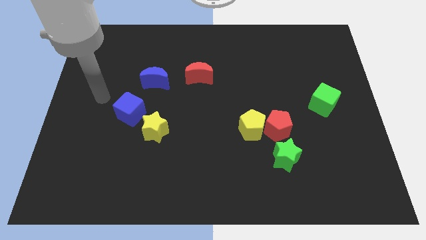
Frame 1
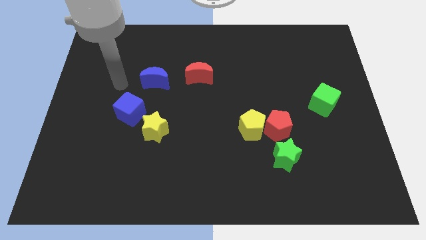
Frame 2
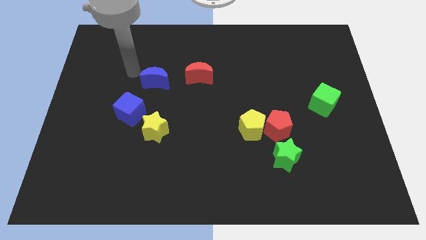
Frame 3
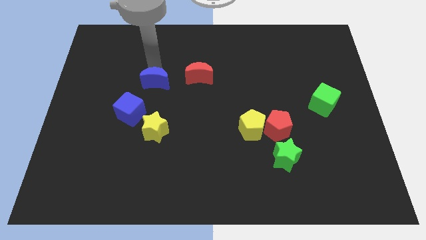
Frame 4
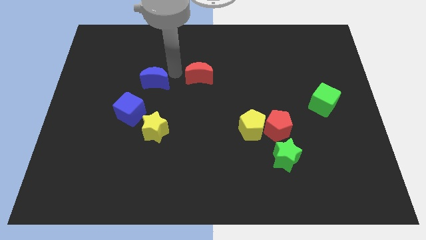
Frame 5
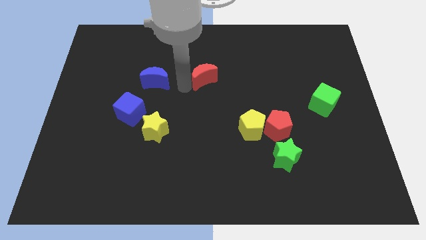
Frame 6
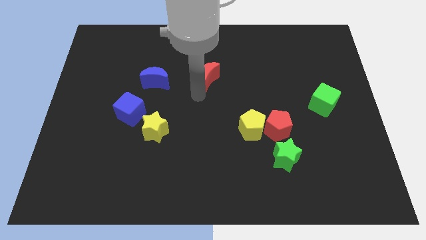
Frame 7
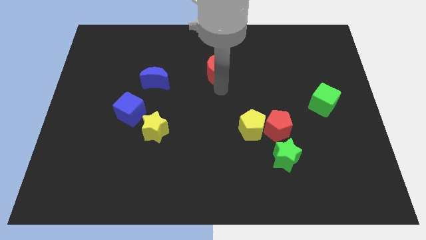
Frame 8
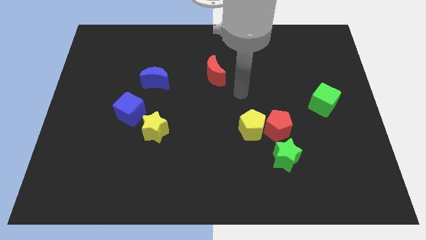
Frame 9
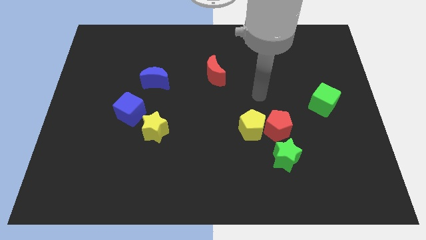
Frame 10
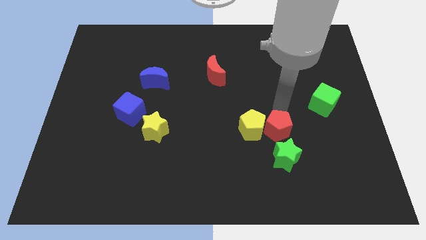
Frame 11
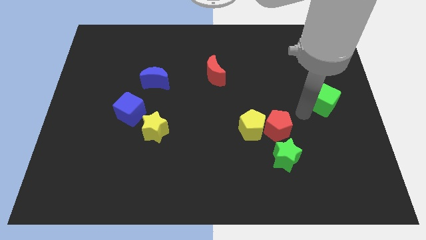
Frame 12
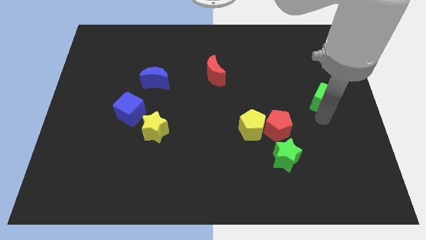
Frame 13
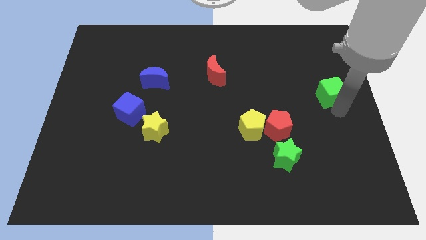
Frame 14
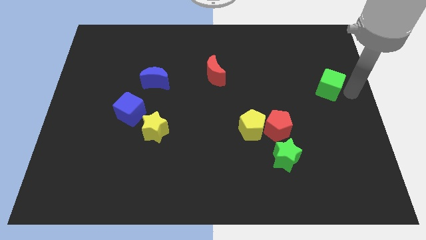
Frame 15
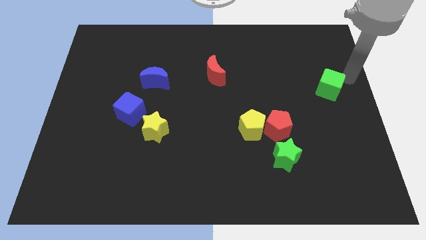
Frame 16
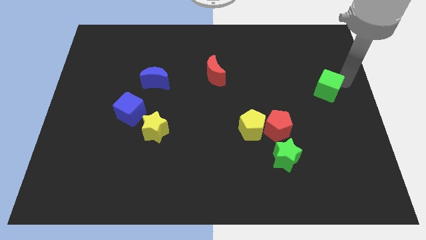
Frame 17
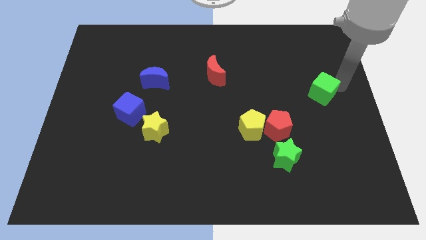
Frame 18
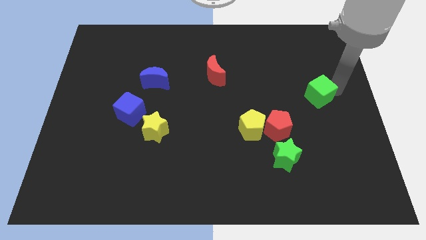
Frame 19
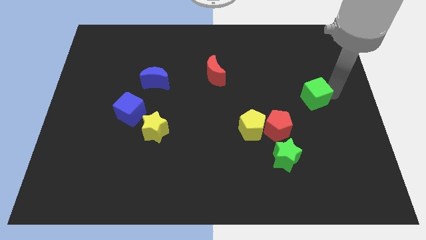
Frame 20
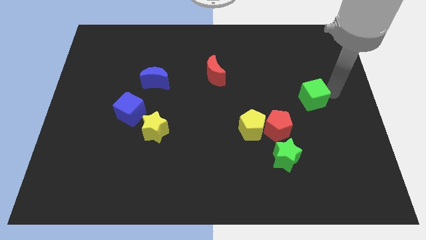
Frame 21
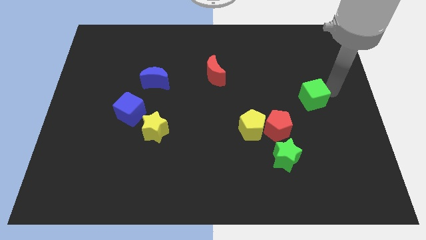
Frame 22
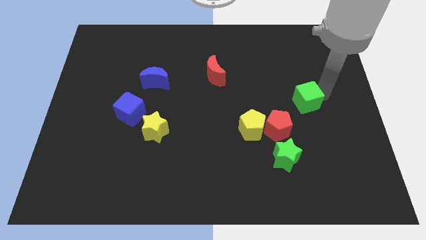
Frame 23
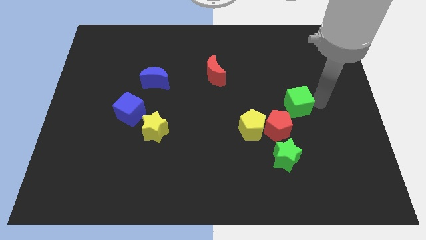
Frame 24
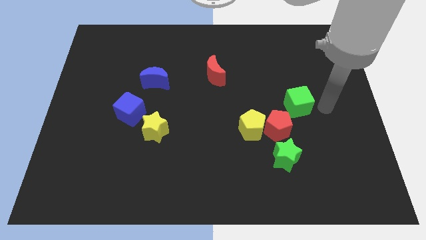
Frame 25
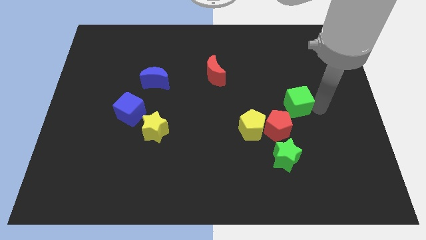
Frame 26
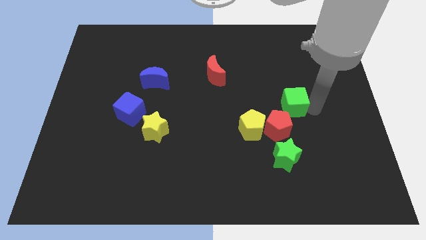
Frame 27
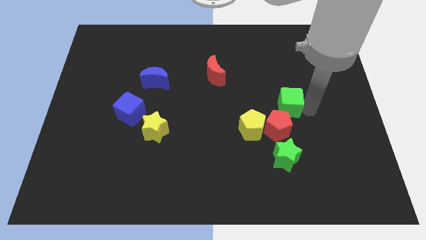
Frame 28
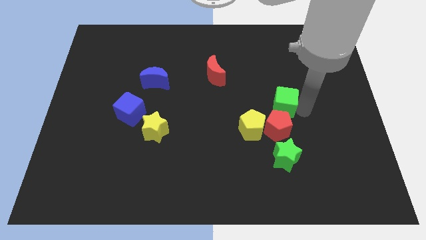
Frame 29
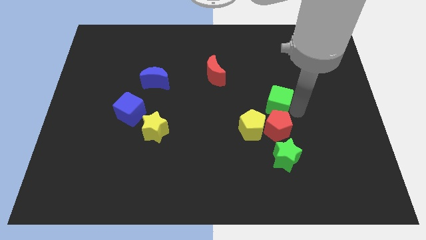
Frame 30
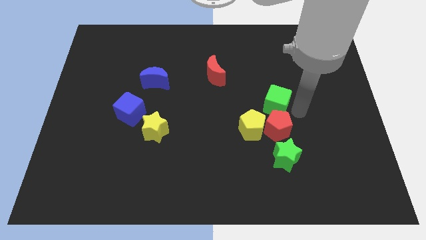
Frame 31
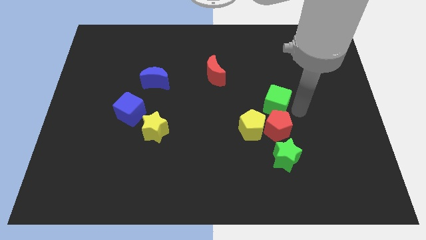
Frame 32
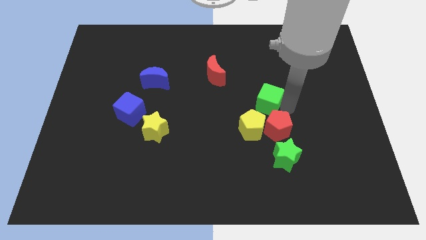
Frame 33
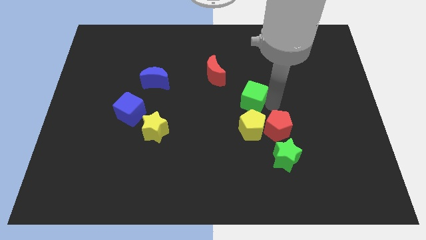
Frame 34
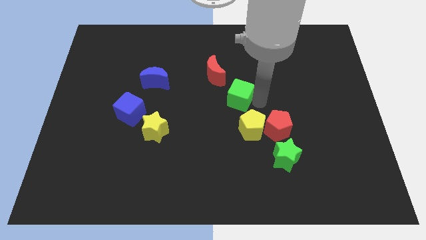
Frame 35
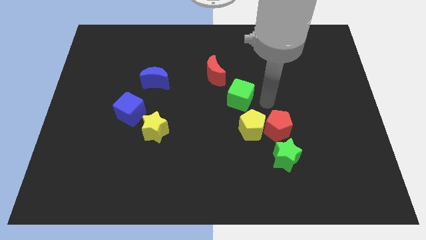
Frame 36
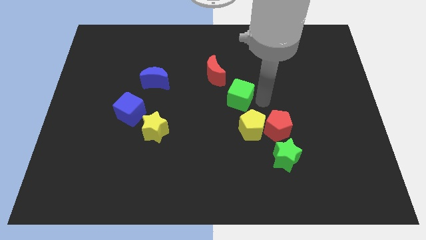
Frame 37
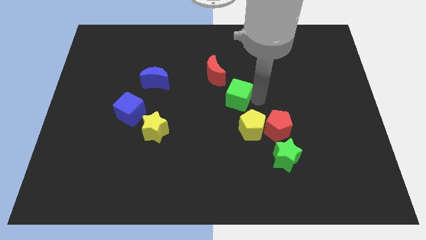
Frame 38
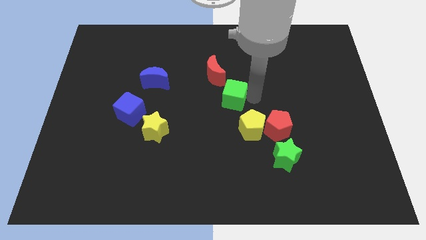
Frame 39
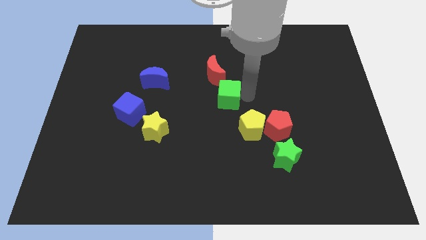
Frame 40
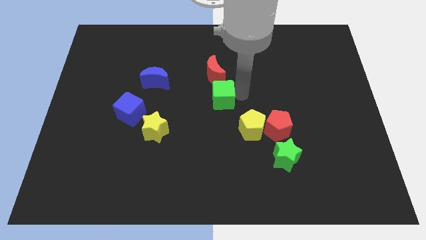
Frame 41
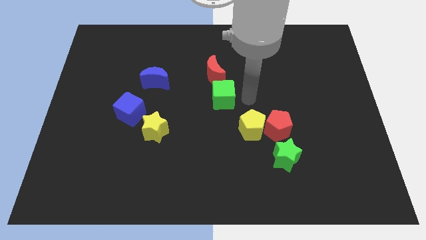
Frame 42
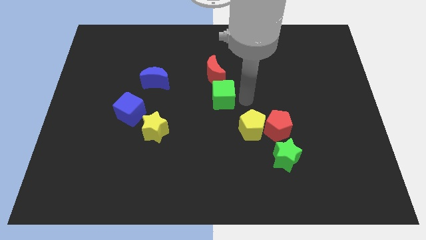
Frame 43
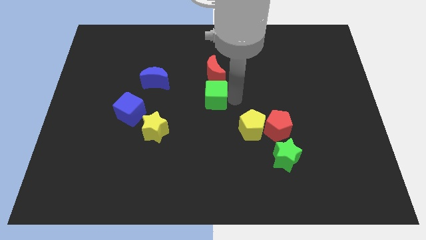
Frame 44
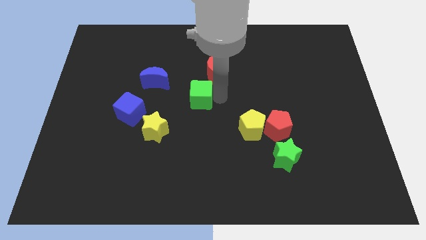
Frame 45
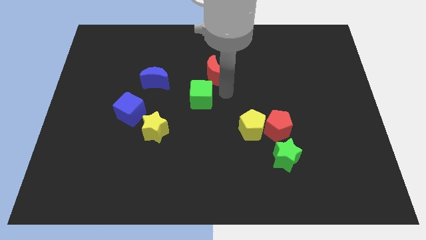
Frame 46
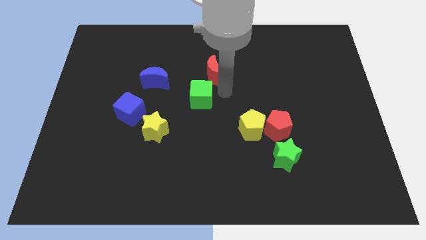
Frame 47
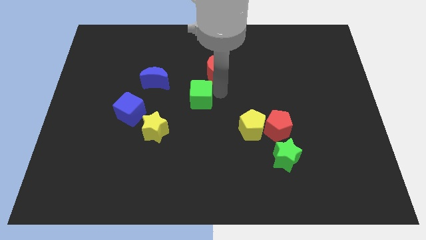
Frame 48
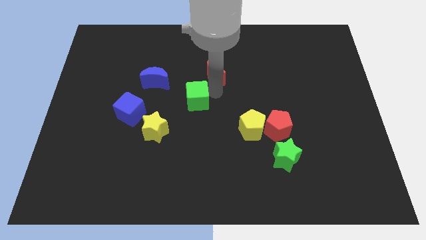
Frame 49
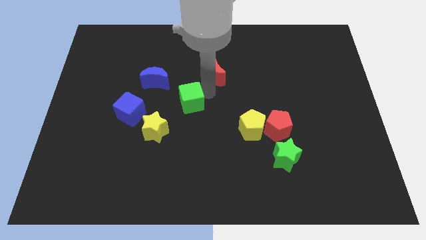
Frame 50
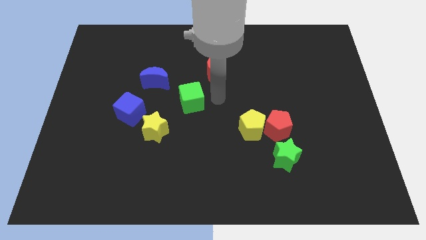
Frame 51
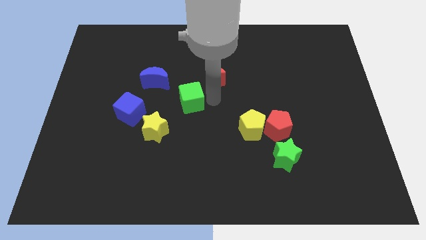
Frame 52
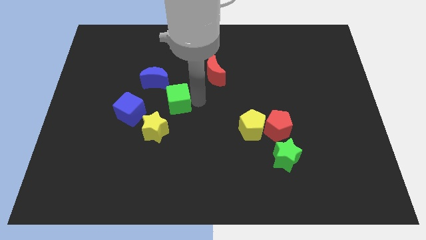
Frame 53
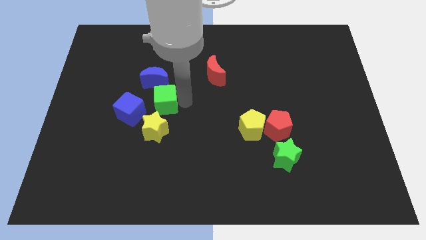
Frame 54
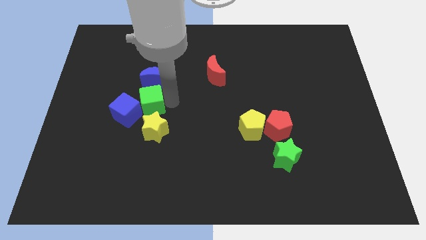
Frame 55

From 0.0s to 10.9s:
slide the green cube to the blue cube

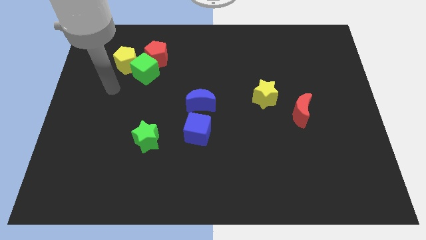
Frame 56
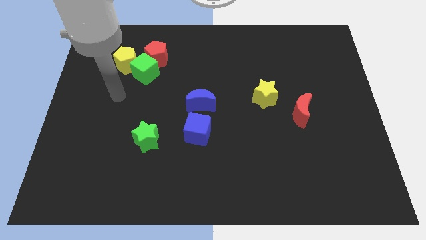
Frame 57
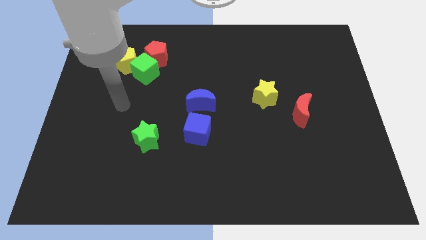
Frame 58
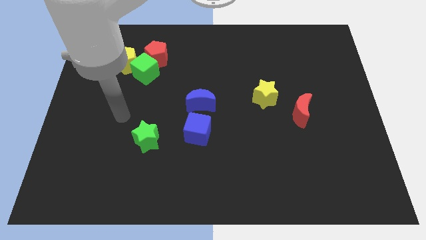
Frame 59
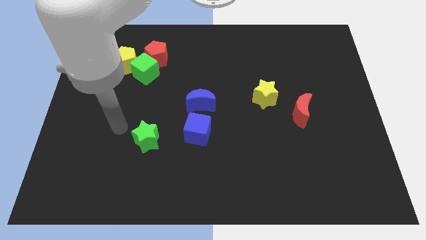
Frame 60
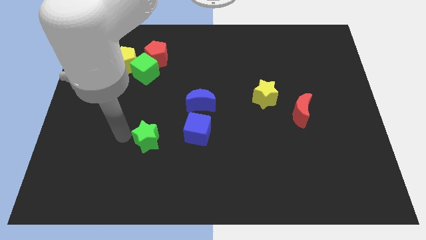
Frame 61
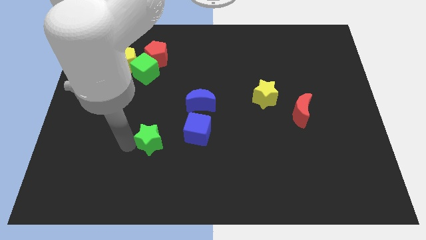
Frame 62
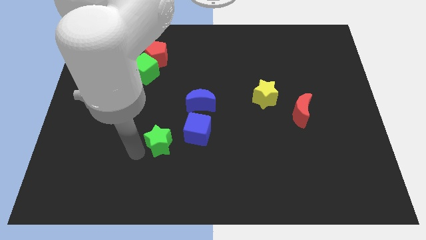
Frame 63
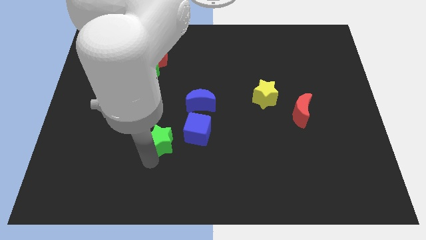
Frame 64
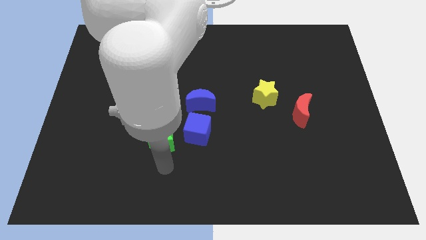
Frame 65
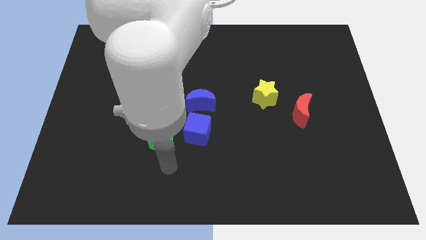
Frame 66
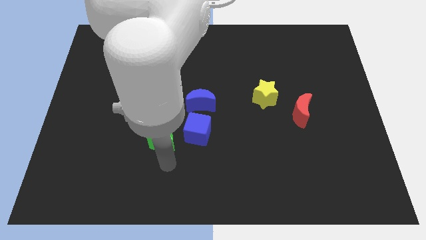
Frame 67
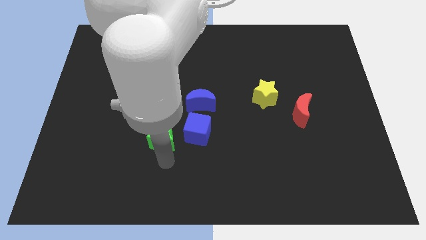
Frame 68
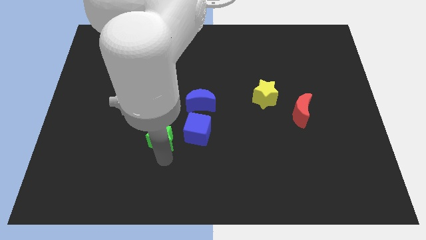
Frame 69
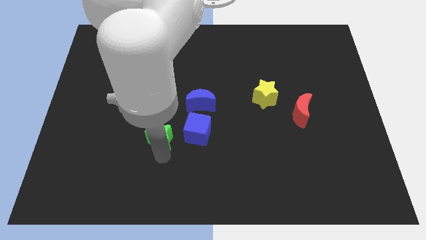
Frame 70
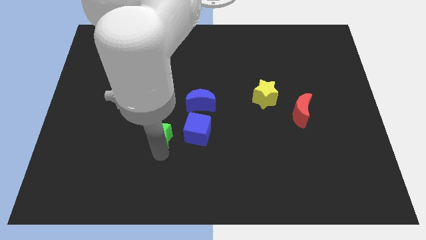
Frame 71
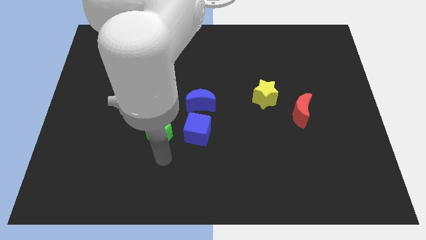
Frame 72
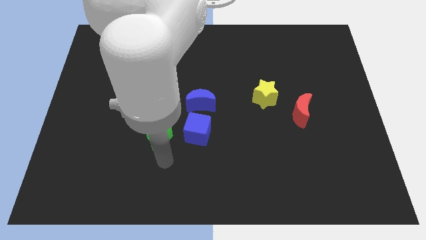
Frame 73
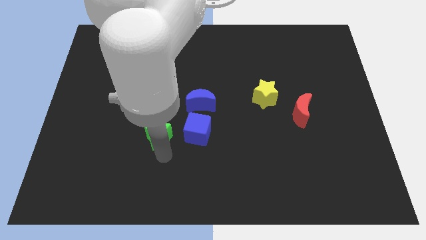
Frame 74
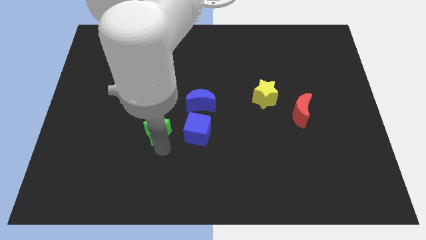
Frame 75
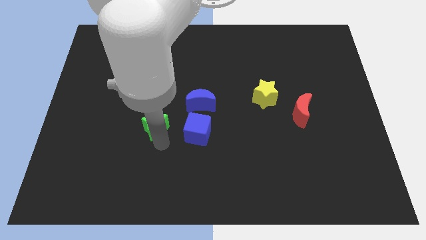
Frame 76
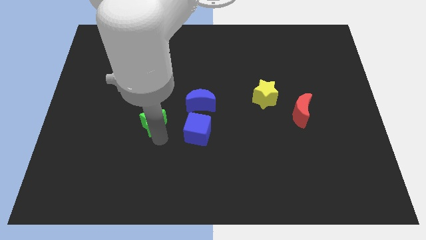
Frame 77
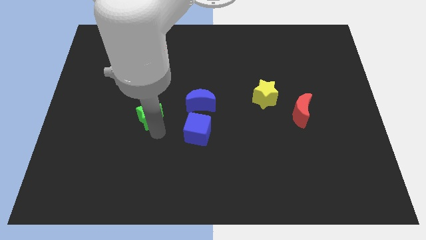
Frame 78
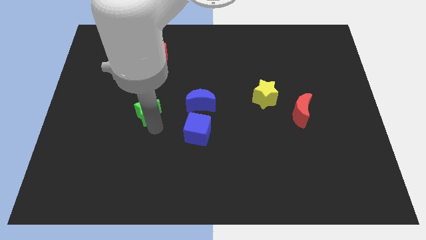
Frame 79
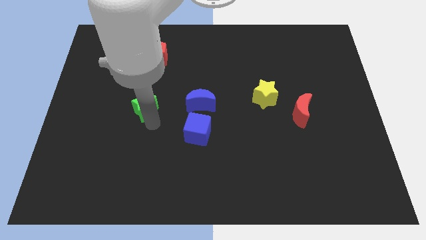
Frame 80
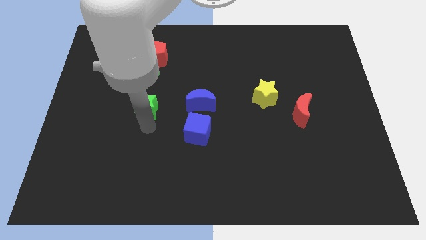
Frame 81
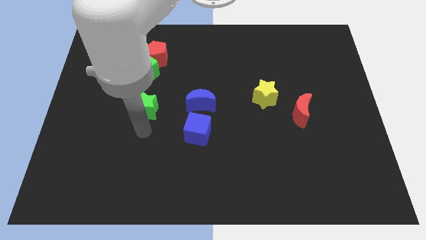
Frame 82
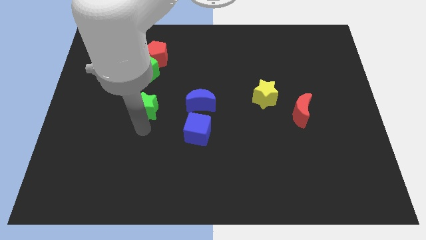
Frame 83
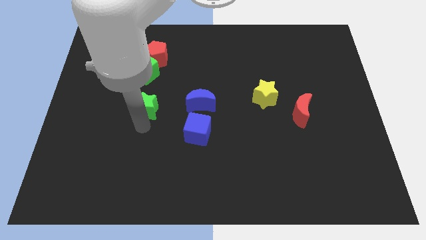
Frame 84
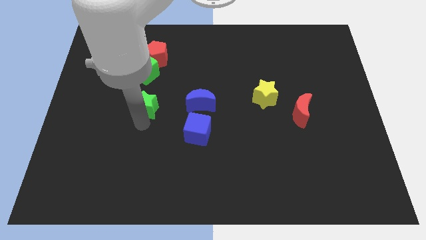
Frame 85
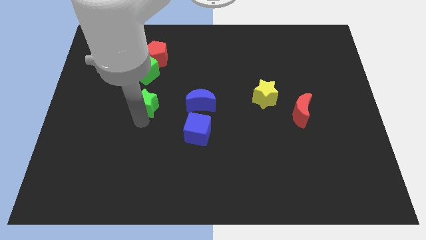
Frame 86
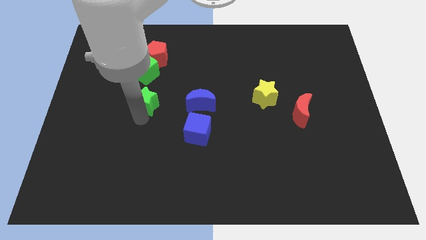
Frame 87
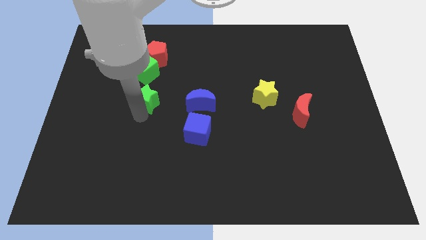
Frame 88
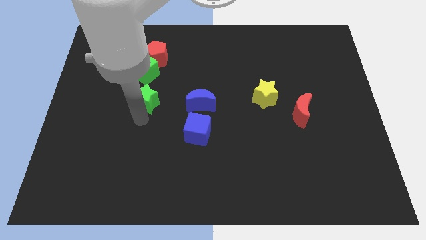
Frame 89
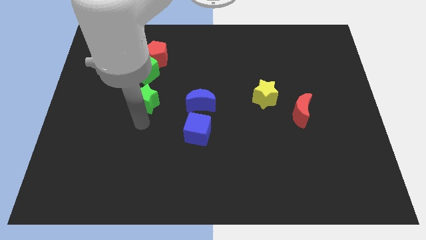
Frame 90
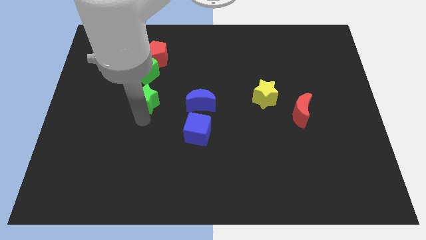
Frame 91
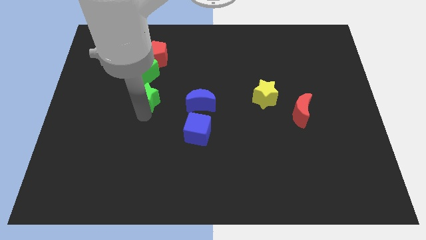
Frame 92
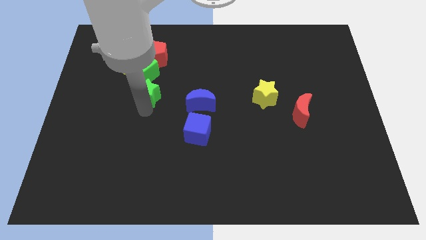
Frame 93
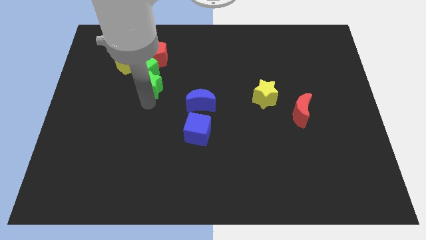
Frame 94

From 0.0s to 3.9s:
push the green star close to the green cube
